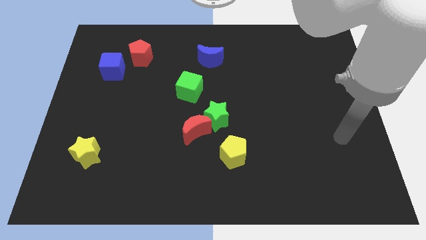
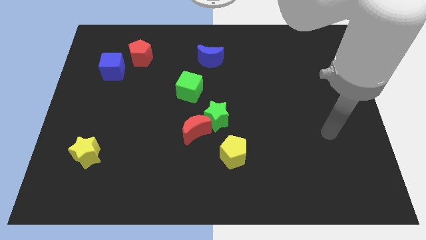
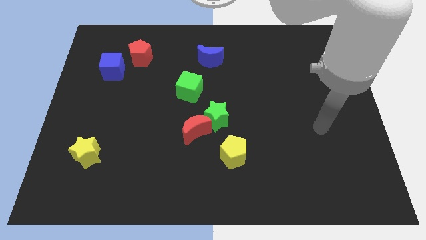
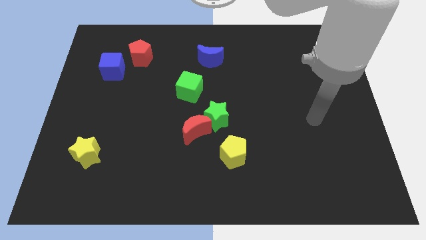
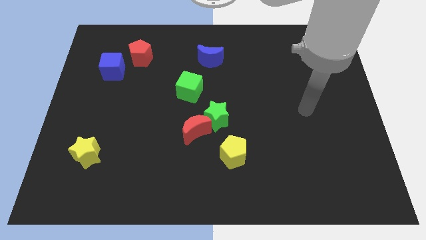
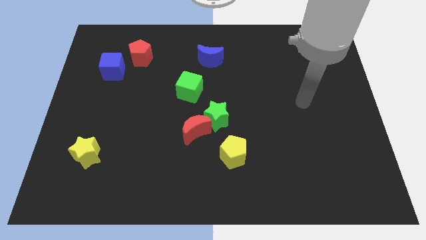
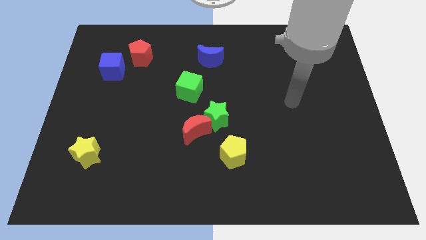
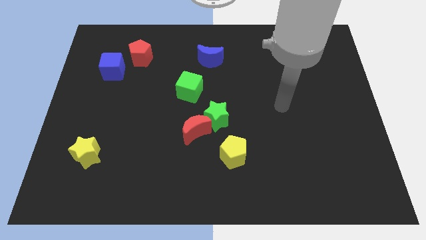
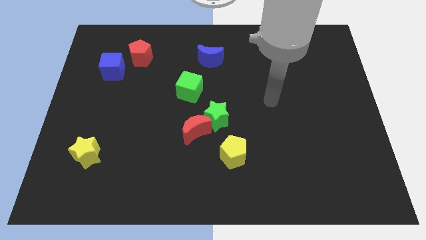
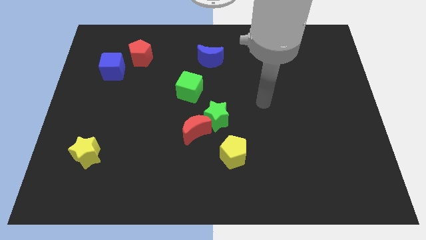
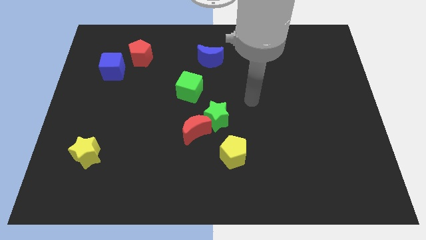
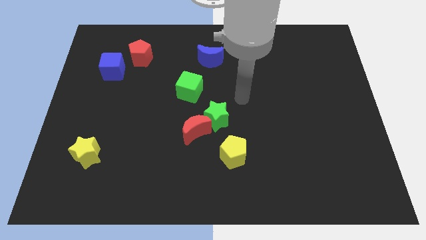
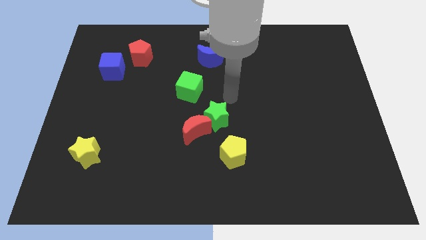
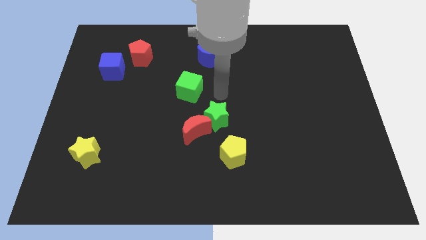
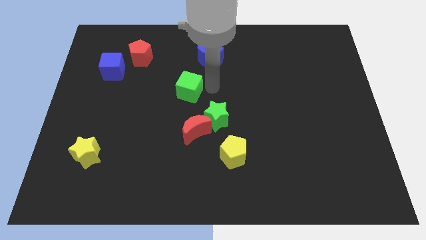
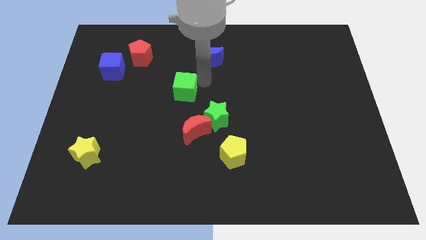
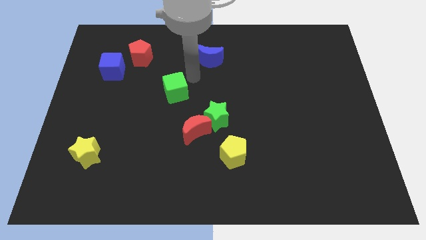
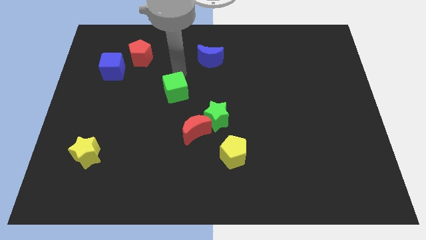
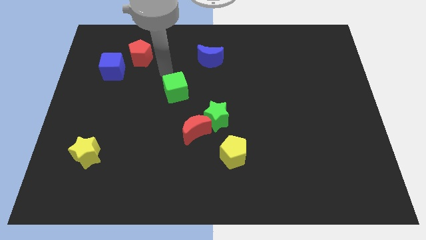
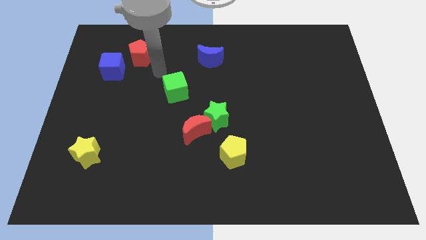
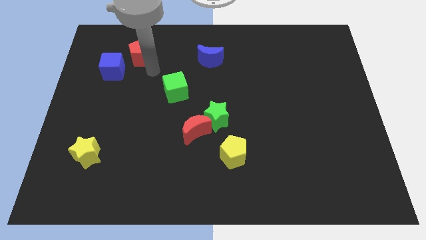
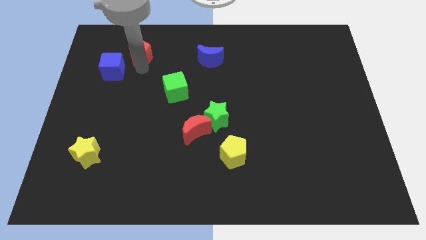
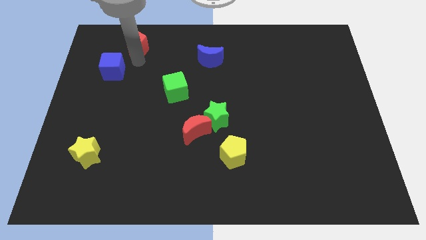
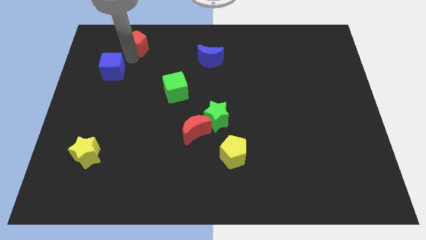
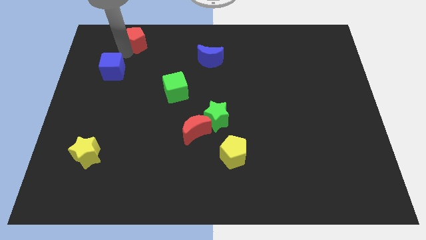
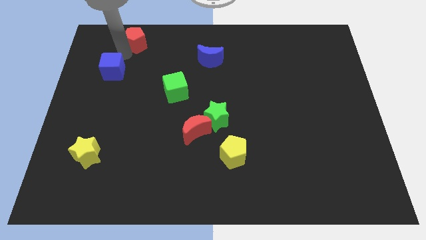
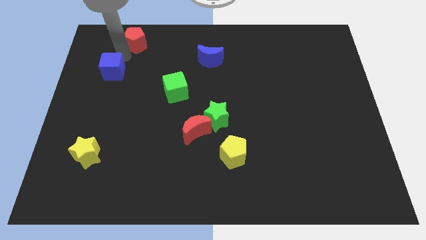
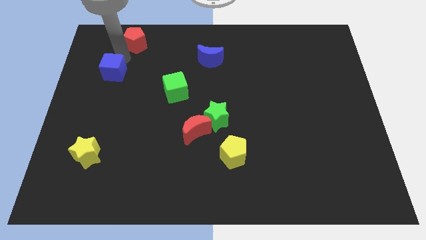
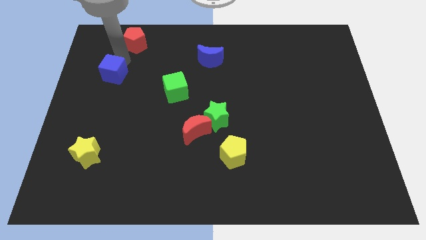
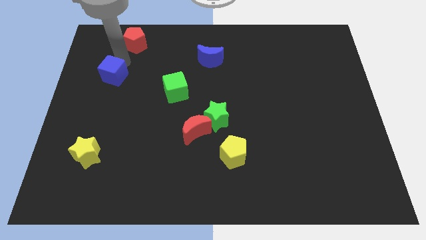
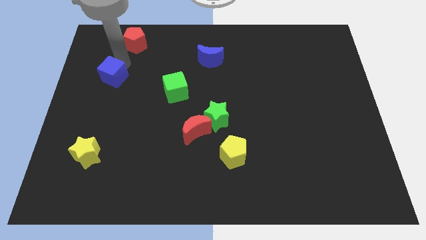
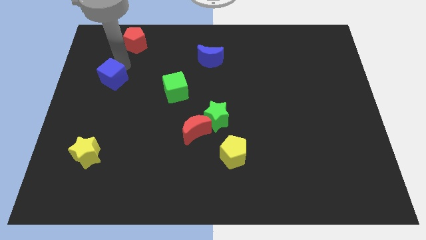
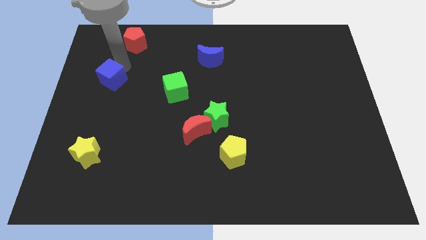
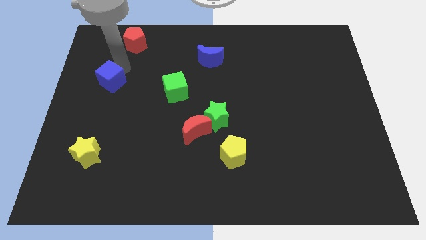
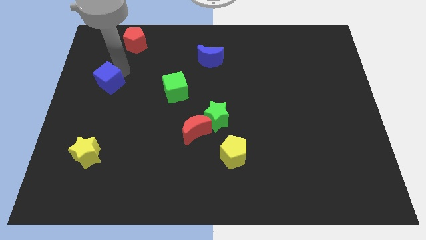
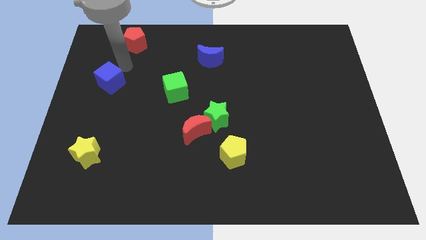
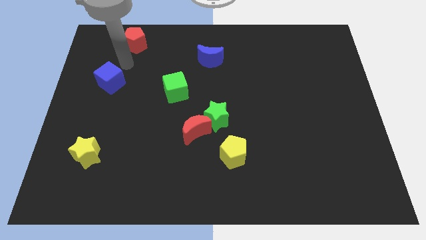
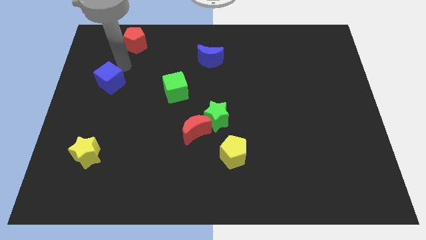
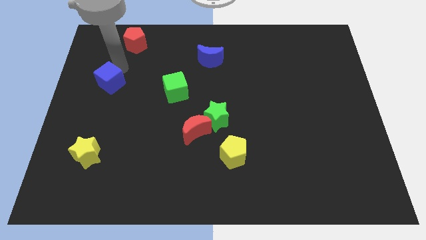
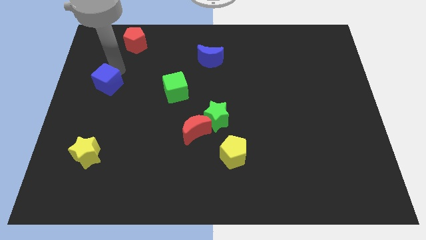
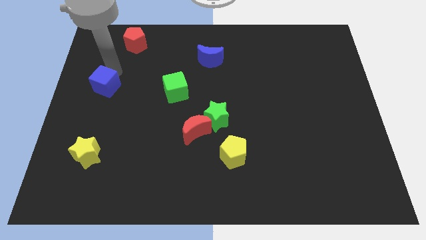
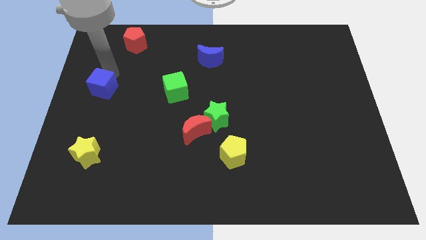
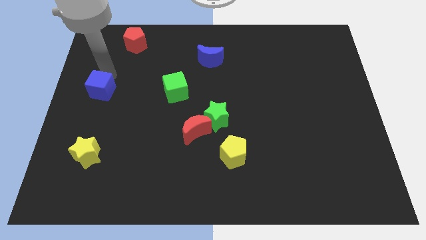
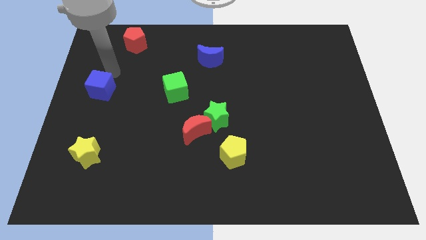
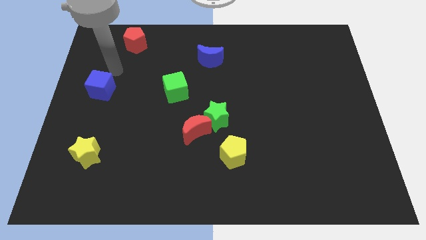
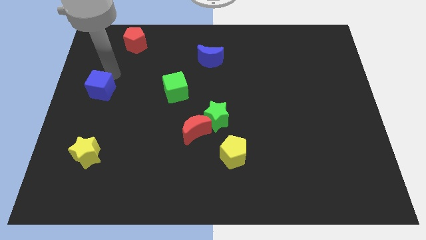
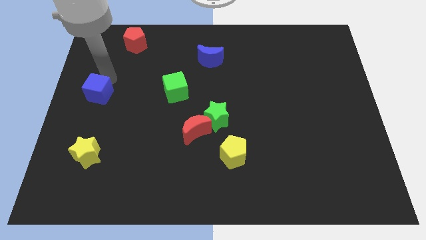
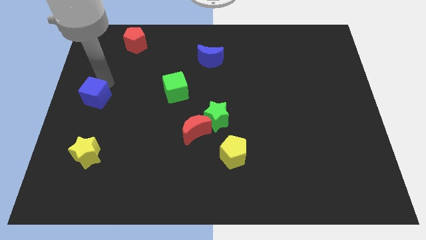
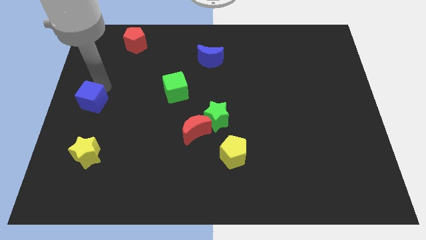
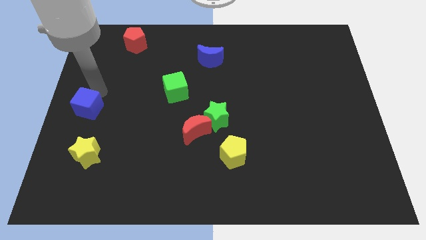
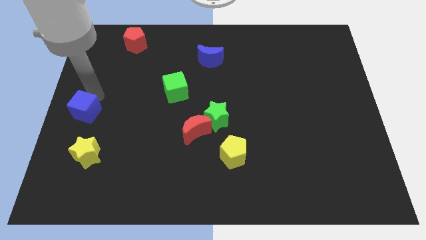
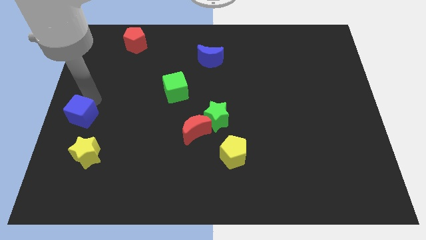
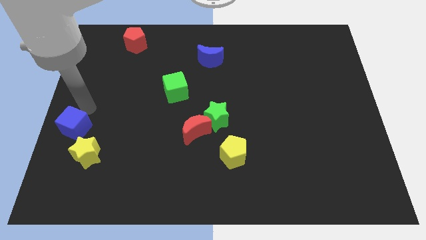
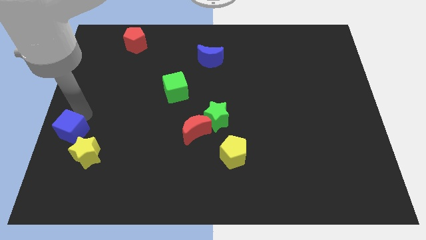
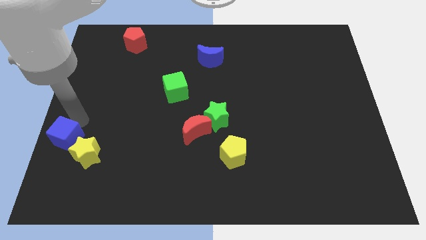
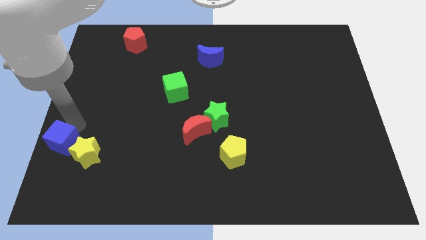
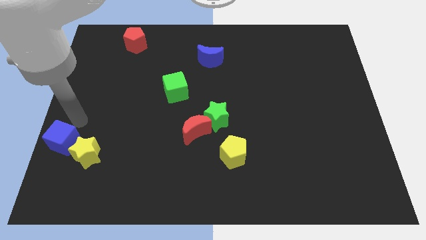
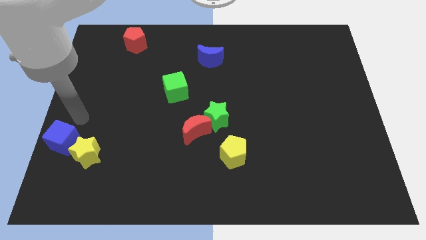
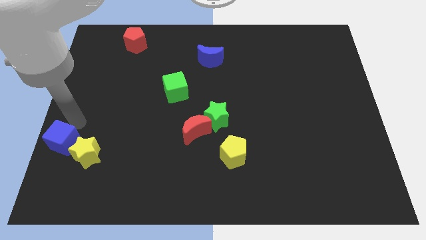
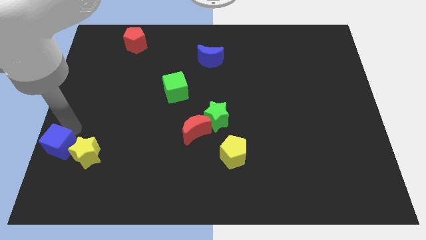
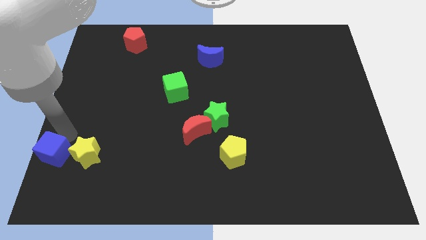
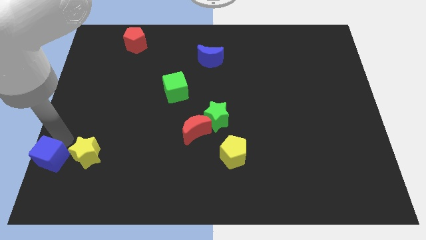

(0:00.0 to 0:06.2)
slide the blue cube to the bottom left
